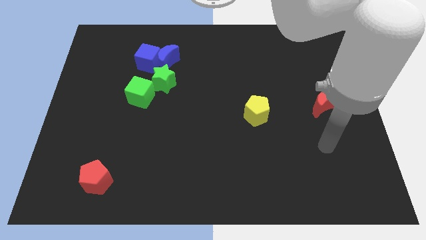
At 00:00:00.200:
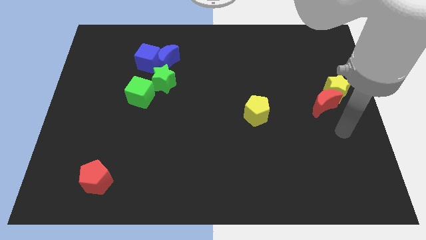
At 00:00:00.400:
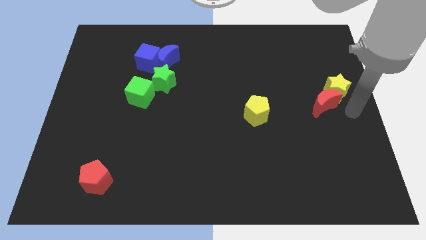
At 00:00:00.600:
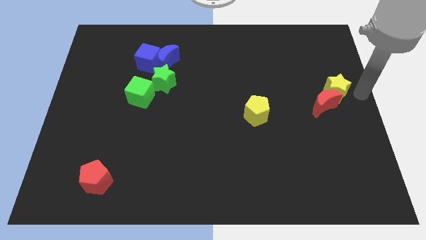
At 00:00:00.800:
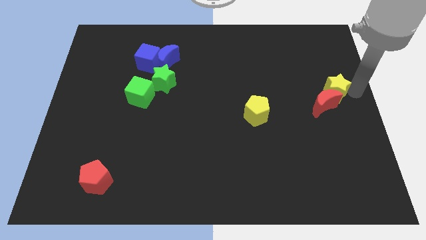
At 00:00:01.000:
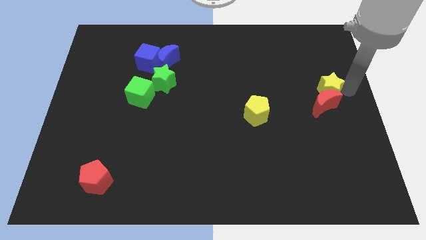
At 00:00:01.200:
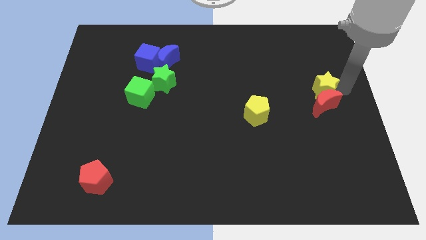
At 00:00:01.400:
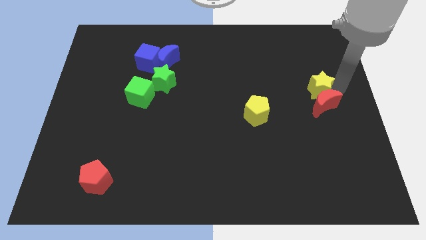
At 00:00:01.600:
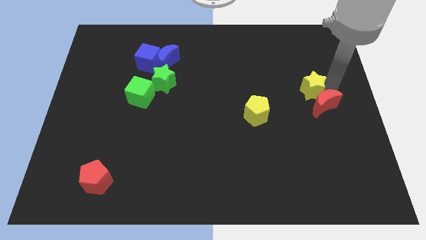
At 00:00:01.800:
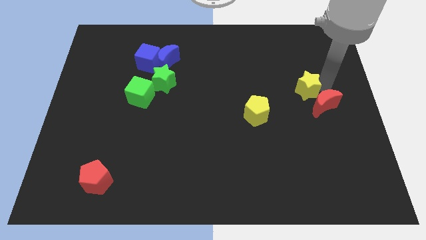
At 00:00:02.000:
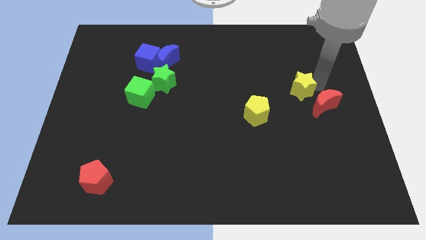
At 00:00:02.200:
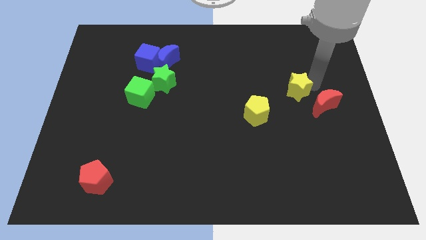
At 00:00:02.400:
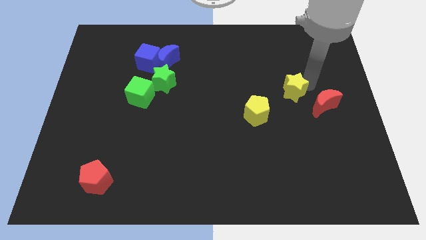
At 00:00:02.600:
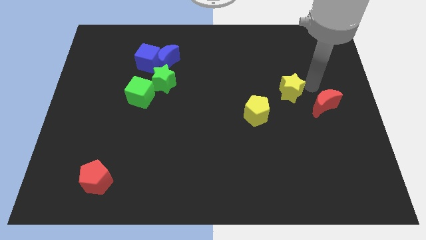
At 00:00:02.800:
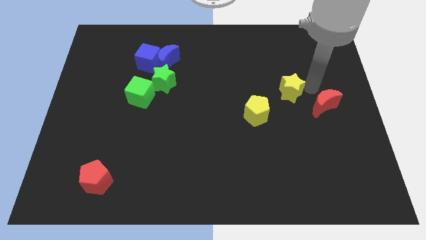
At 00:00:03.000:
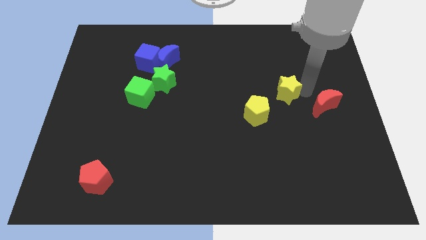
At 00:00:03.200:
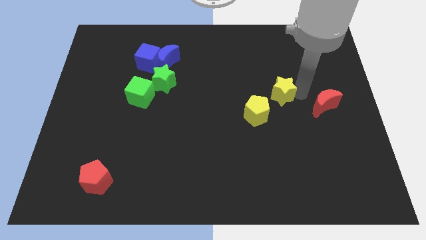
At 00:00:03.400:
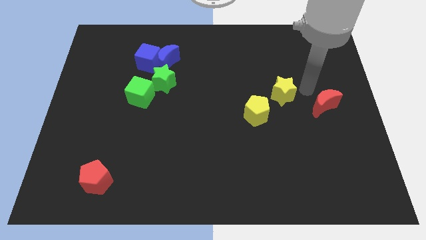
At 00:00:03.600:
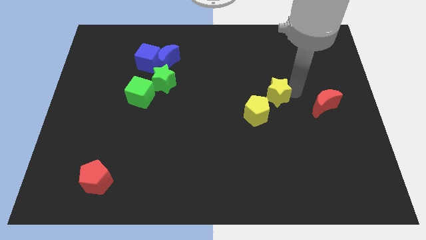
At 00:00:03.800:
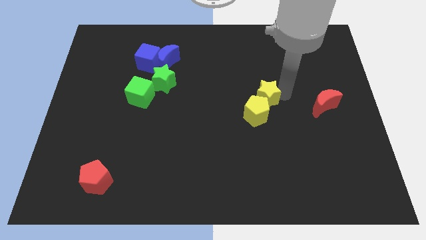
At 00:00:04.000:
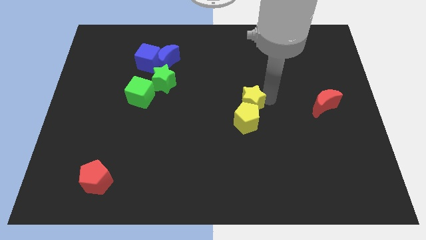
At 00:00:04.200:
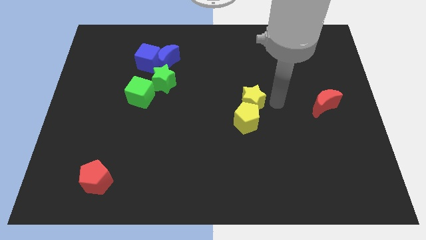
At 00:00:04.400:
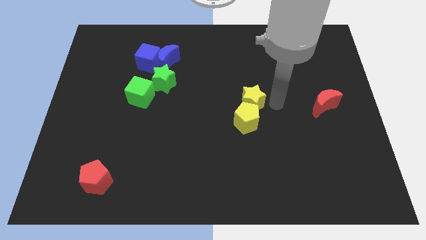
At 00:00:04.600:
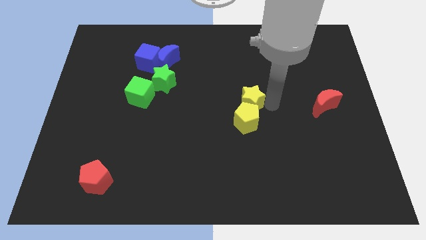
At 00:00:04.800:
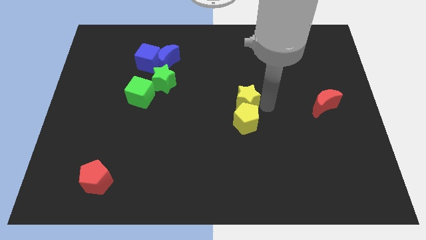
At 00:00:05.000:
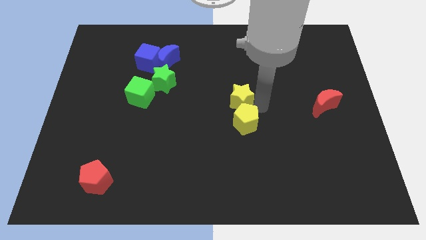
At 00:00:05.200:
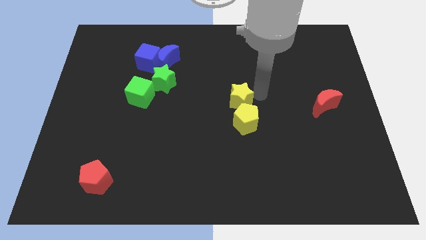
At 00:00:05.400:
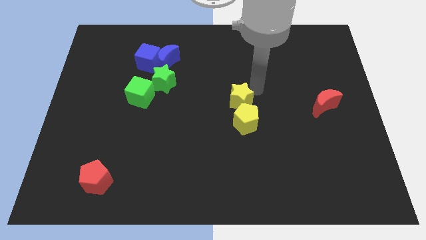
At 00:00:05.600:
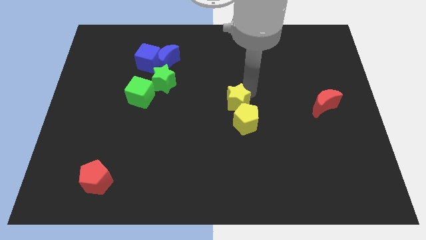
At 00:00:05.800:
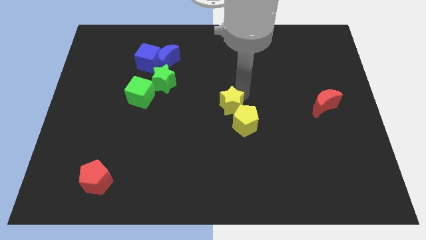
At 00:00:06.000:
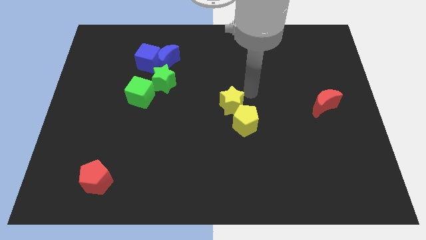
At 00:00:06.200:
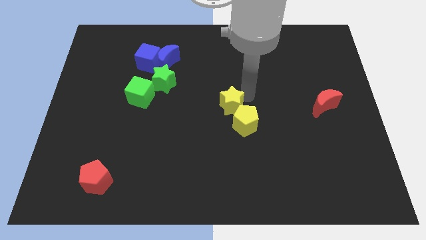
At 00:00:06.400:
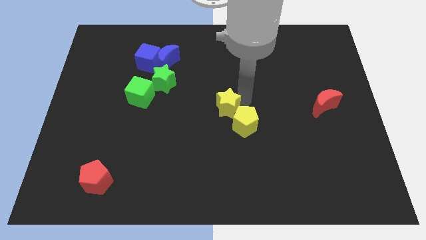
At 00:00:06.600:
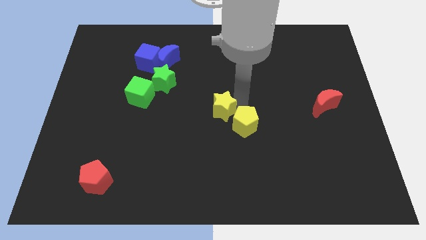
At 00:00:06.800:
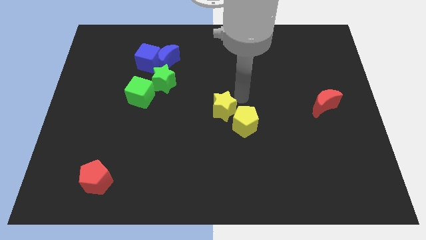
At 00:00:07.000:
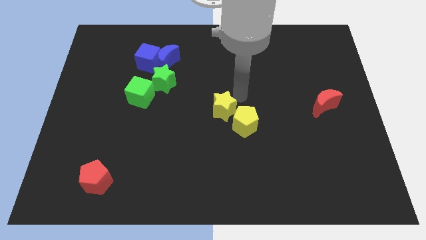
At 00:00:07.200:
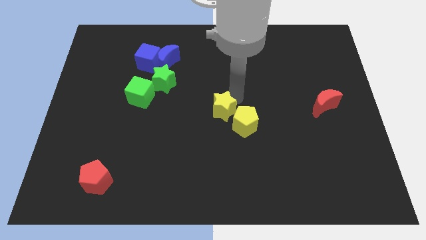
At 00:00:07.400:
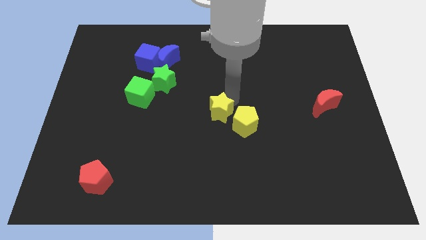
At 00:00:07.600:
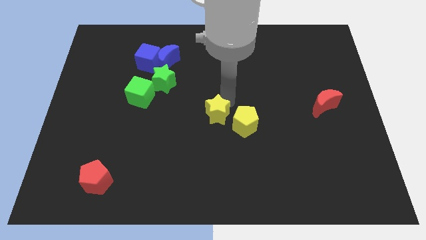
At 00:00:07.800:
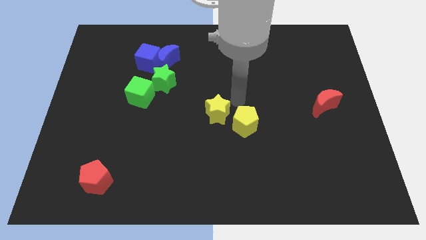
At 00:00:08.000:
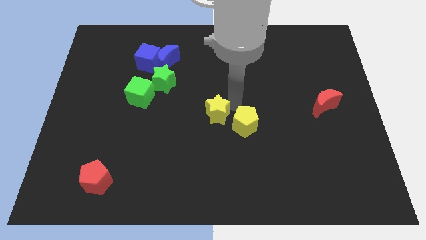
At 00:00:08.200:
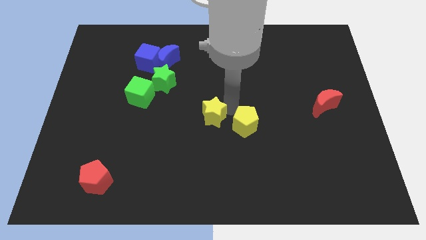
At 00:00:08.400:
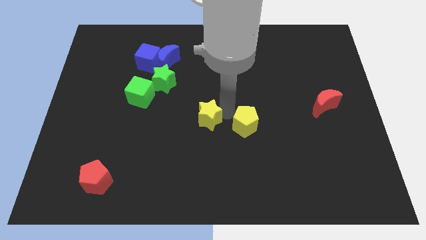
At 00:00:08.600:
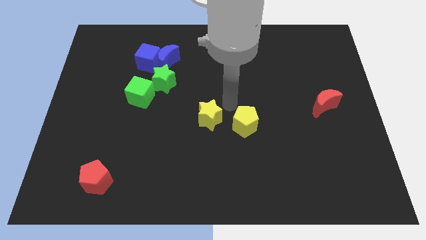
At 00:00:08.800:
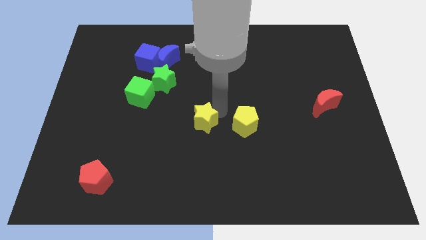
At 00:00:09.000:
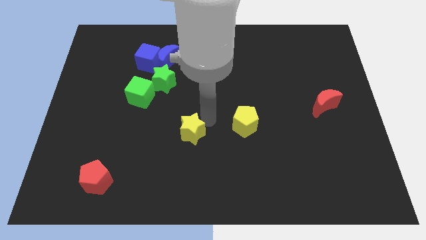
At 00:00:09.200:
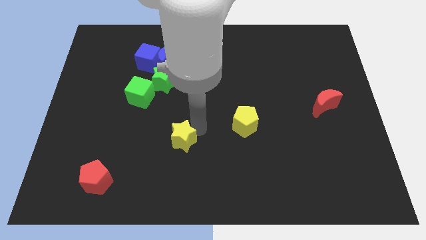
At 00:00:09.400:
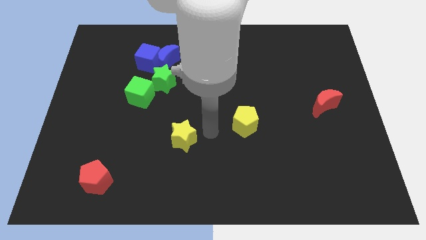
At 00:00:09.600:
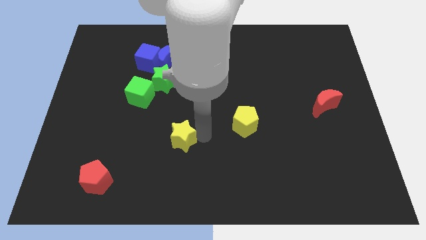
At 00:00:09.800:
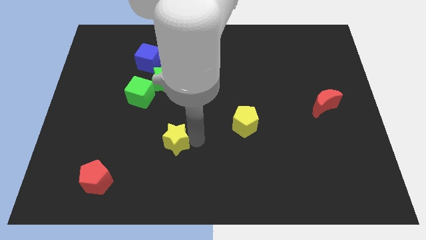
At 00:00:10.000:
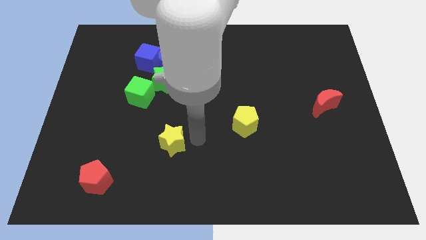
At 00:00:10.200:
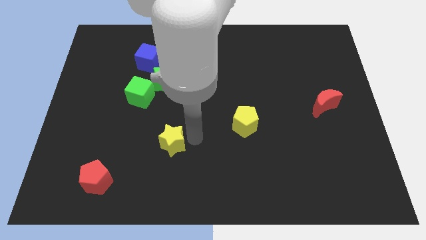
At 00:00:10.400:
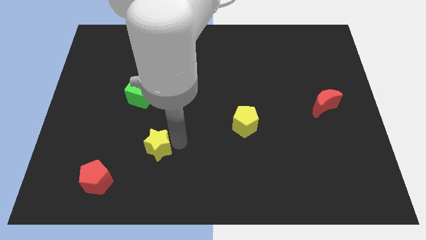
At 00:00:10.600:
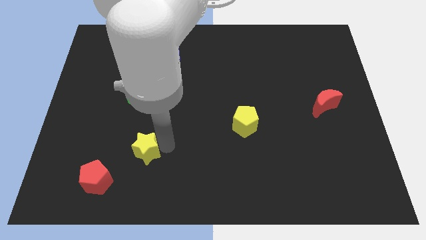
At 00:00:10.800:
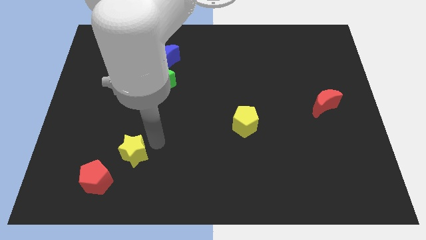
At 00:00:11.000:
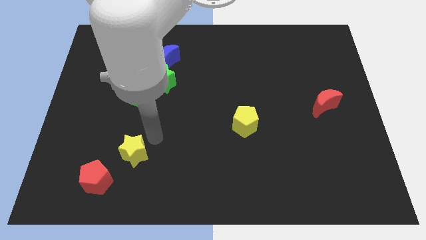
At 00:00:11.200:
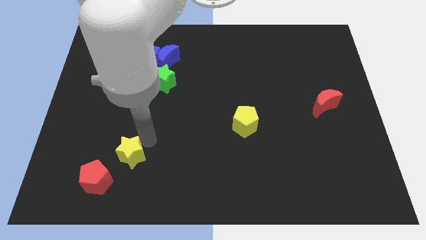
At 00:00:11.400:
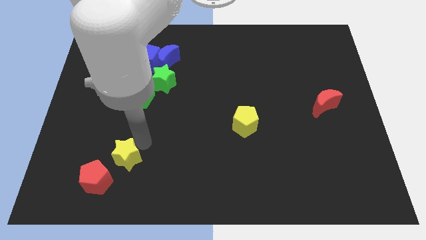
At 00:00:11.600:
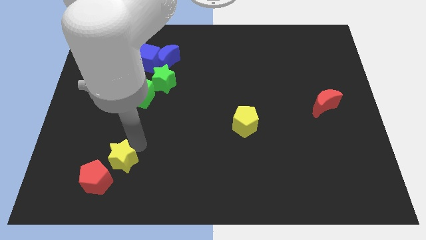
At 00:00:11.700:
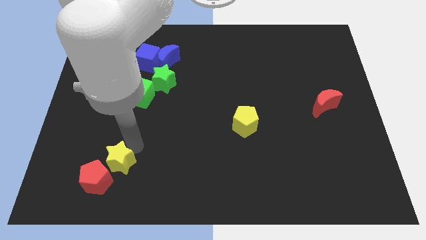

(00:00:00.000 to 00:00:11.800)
slide the yellow star to the red pentagon

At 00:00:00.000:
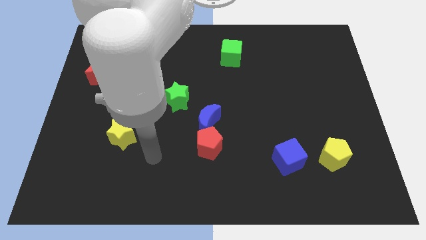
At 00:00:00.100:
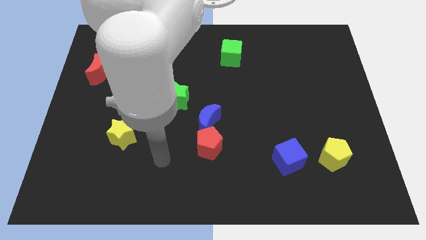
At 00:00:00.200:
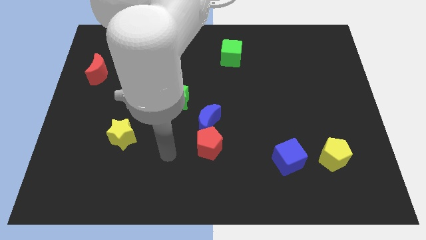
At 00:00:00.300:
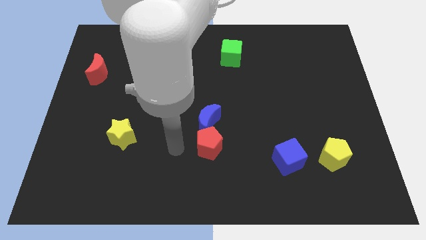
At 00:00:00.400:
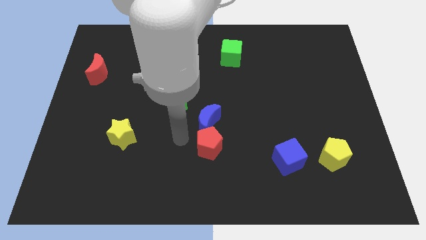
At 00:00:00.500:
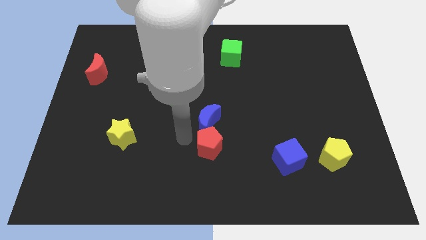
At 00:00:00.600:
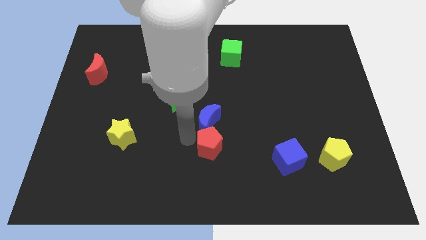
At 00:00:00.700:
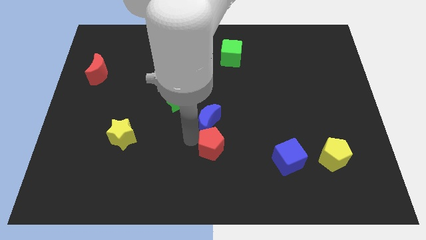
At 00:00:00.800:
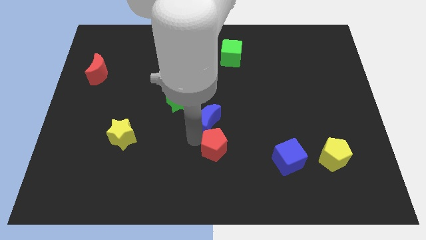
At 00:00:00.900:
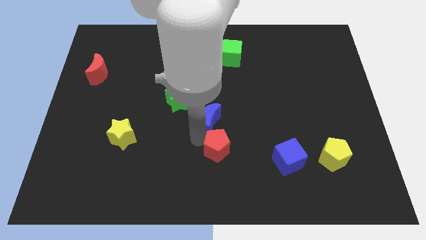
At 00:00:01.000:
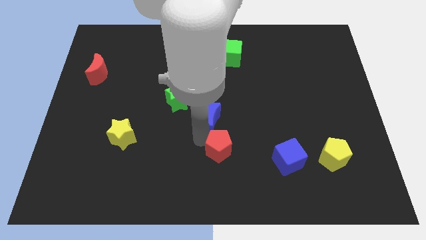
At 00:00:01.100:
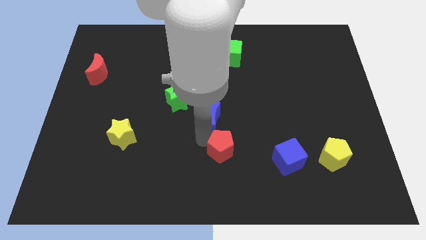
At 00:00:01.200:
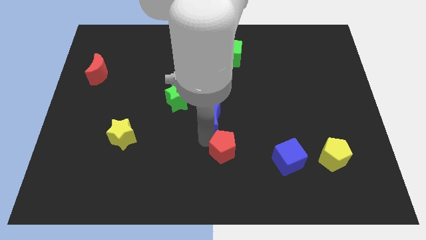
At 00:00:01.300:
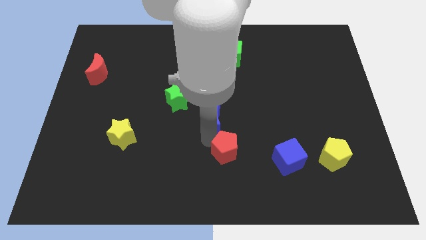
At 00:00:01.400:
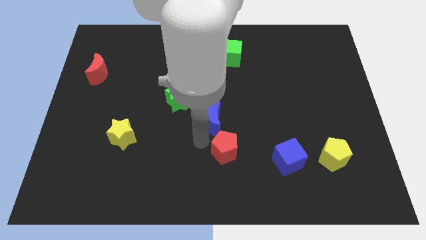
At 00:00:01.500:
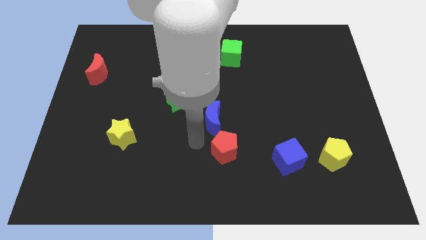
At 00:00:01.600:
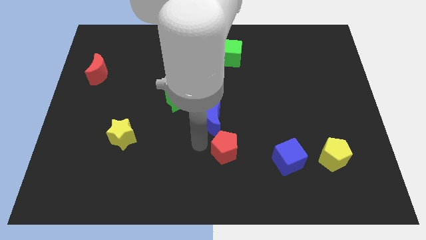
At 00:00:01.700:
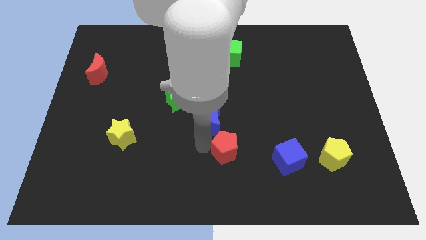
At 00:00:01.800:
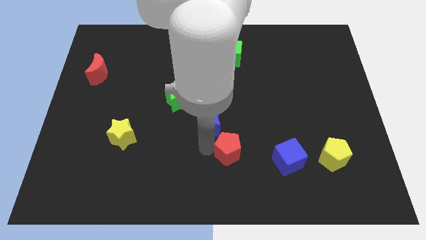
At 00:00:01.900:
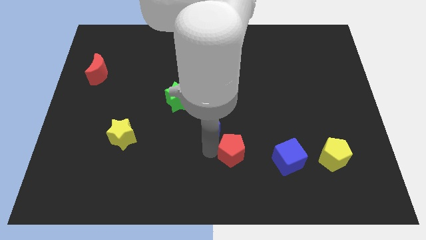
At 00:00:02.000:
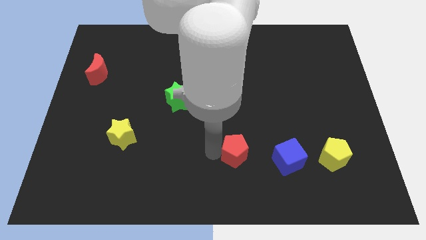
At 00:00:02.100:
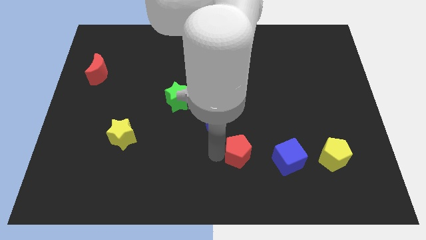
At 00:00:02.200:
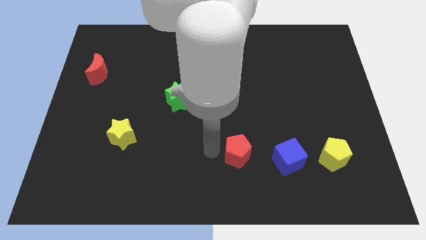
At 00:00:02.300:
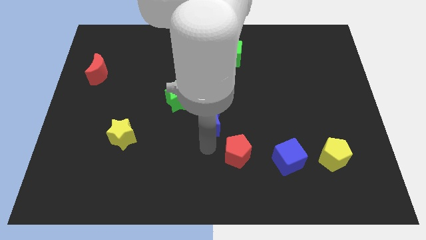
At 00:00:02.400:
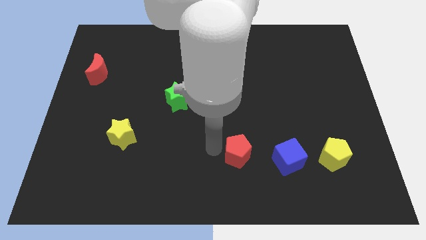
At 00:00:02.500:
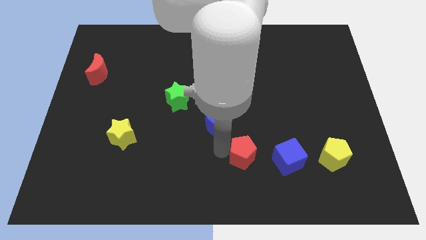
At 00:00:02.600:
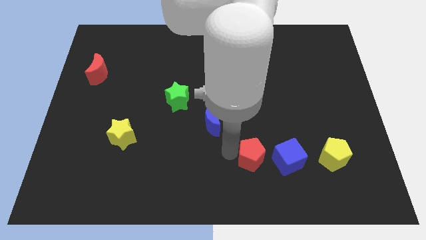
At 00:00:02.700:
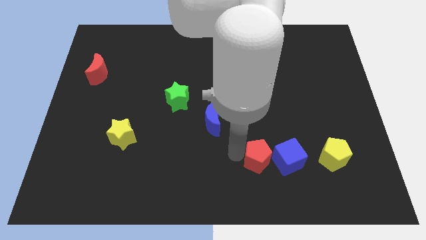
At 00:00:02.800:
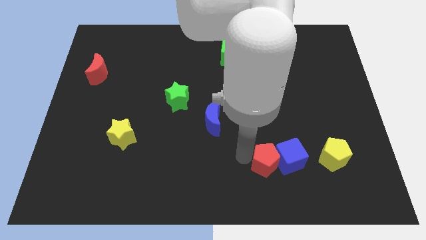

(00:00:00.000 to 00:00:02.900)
push the red pentagon close to the blue cube
